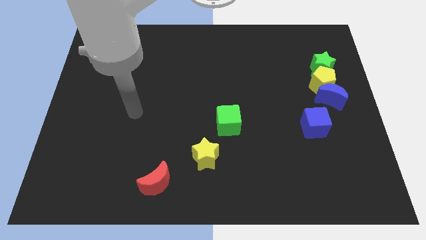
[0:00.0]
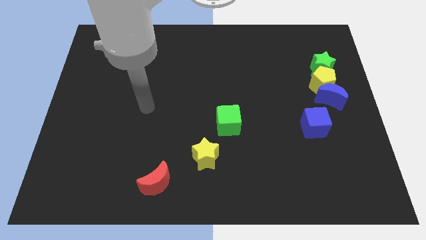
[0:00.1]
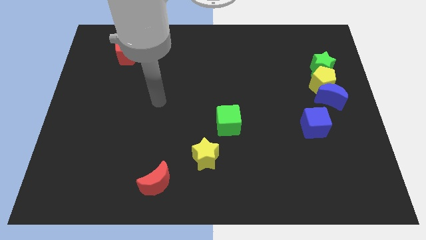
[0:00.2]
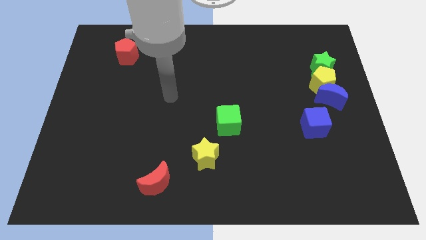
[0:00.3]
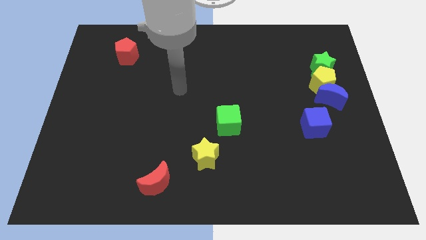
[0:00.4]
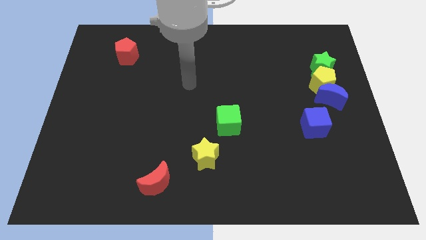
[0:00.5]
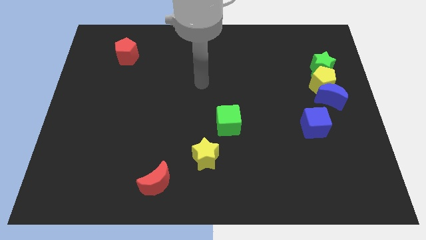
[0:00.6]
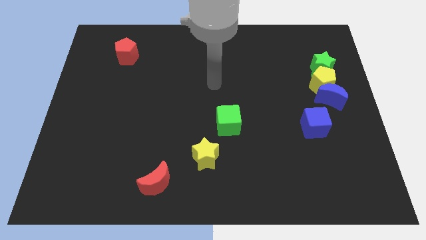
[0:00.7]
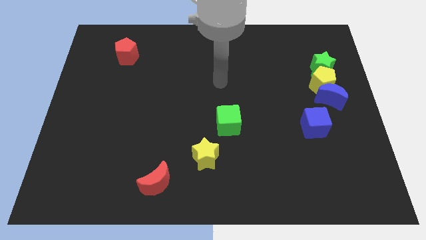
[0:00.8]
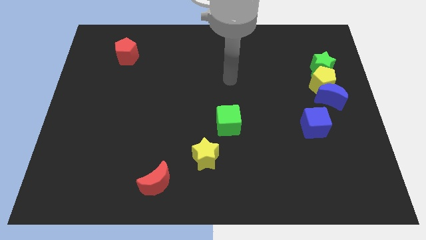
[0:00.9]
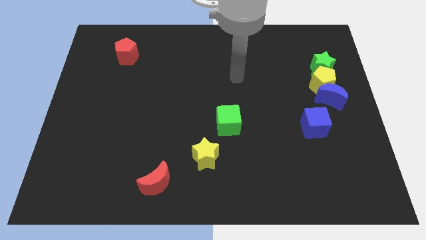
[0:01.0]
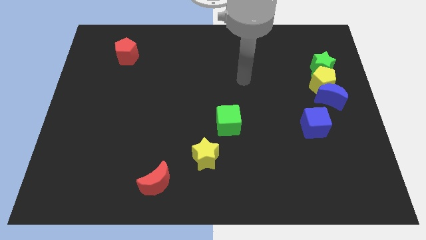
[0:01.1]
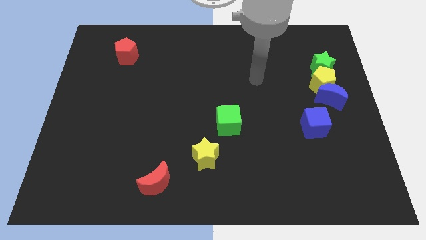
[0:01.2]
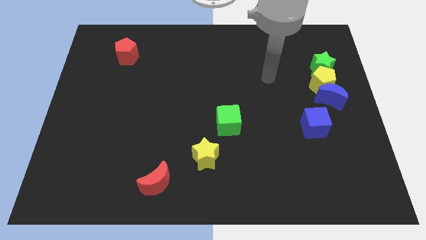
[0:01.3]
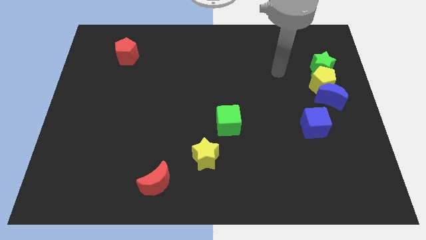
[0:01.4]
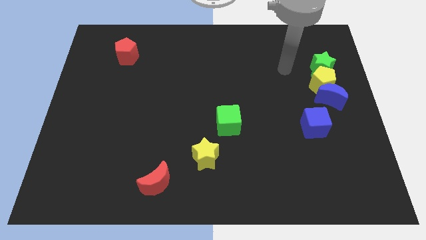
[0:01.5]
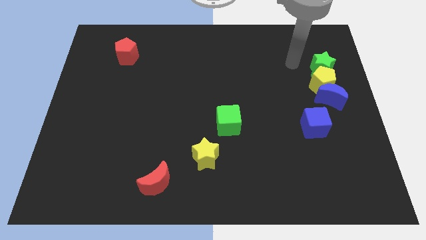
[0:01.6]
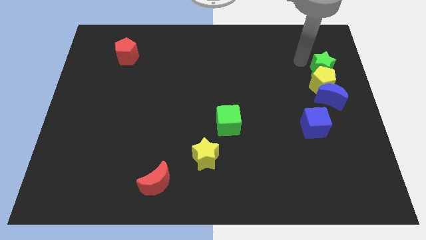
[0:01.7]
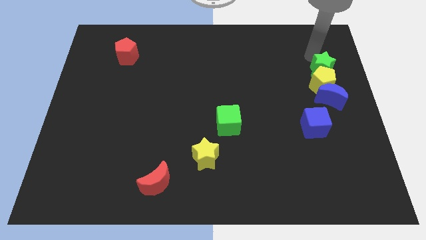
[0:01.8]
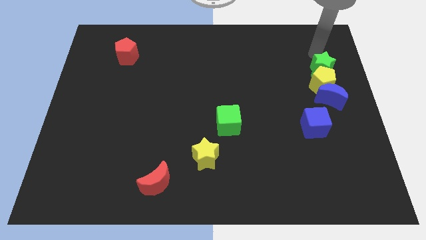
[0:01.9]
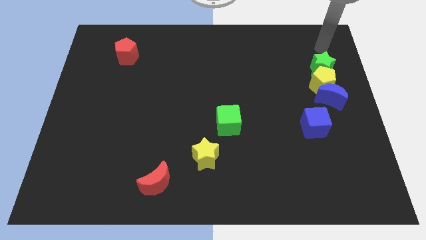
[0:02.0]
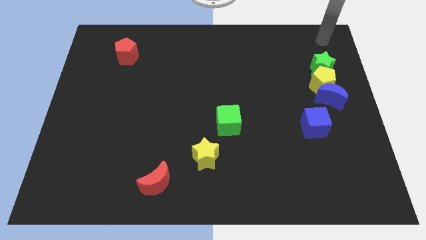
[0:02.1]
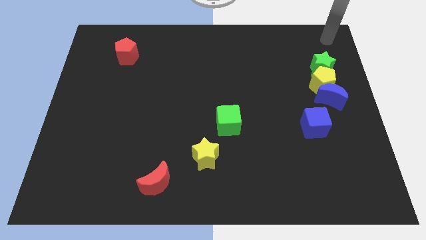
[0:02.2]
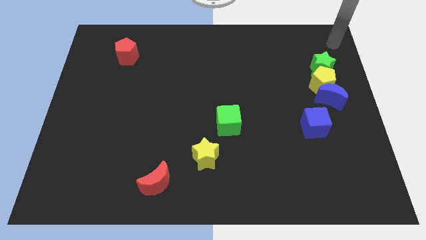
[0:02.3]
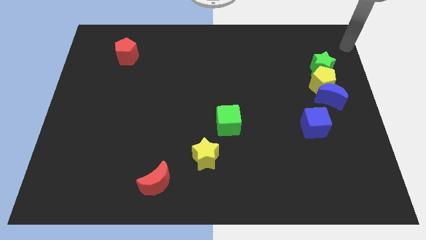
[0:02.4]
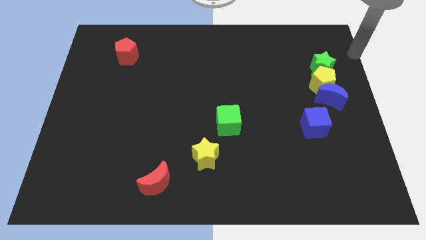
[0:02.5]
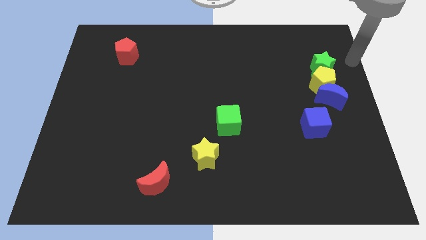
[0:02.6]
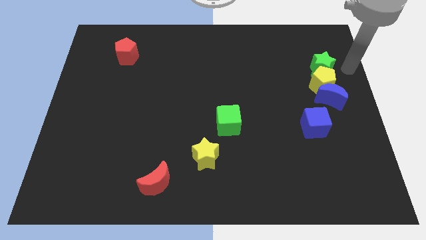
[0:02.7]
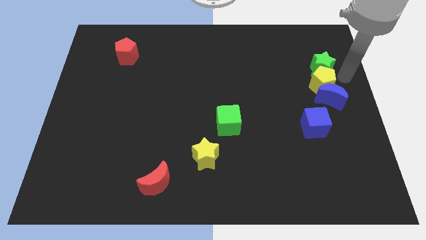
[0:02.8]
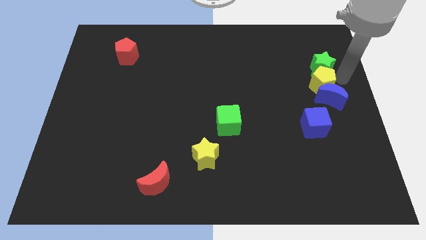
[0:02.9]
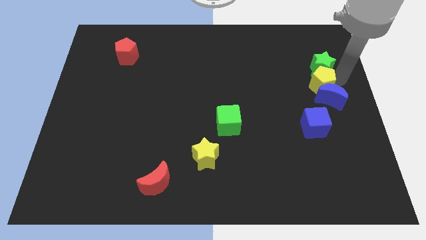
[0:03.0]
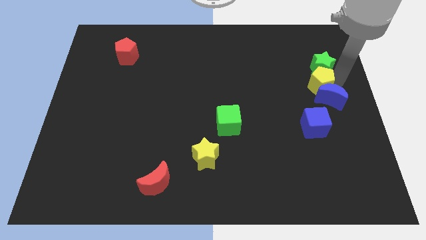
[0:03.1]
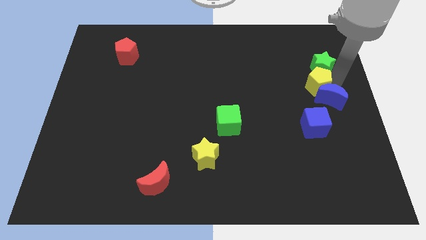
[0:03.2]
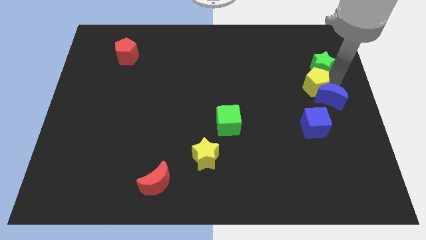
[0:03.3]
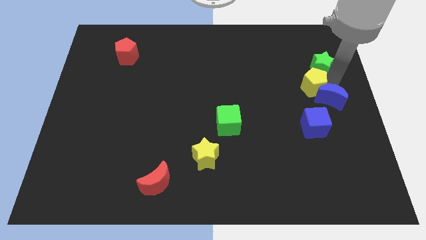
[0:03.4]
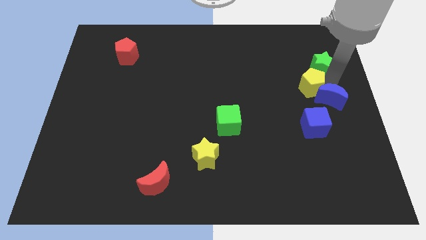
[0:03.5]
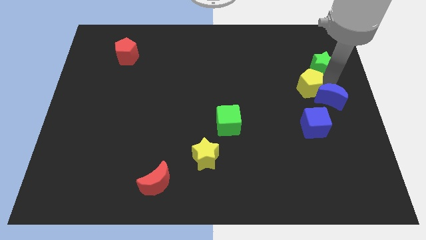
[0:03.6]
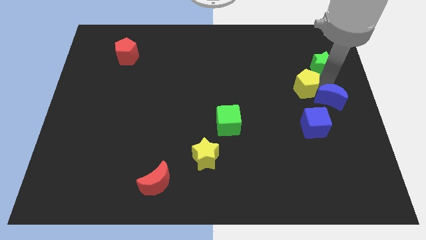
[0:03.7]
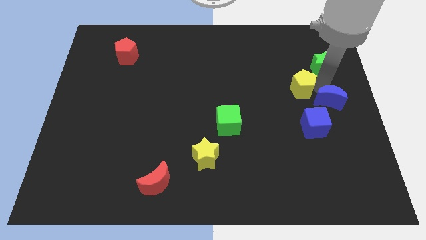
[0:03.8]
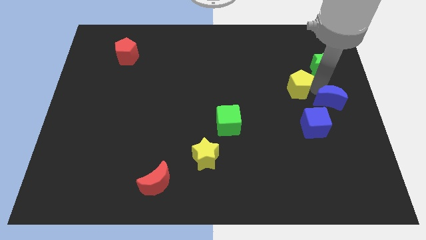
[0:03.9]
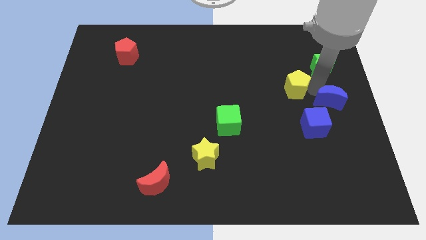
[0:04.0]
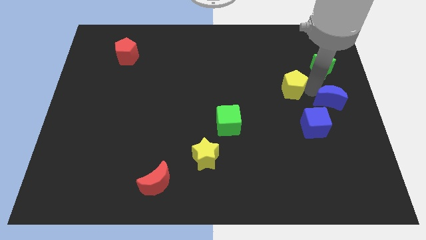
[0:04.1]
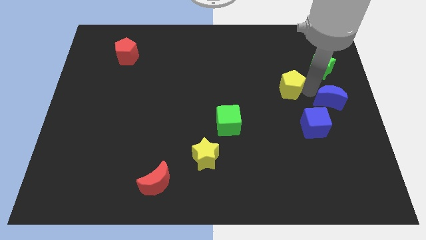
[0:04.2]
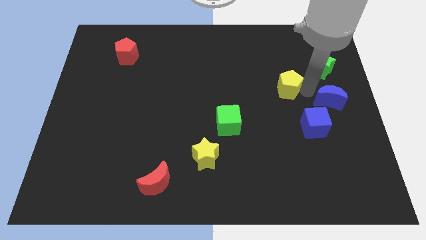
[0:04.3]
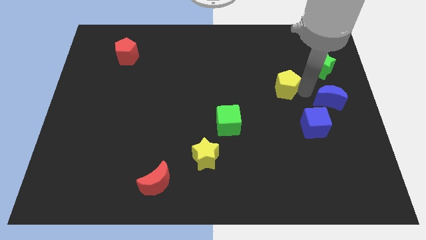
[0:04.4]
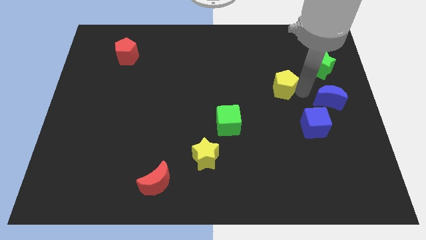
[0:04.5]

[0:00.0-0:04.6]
pull the yellow pentagon apart from the blue moon and green star

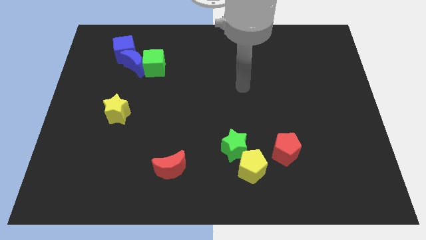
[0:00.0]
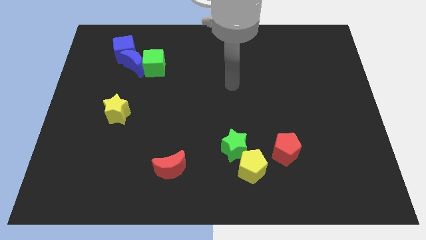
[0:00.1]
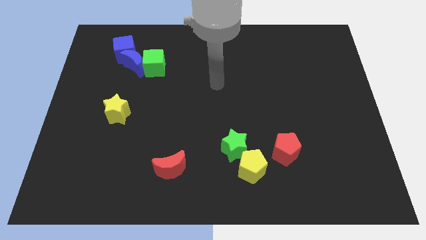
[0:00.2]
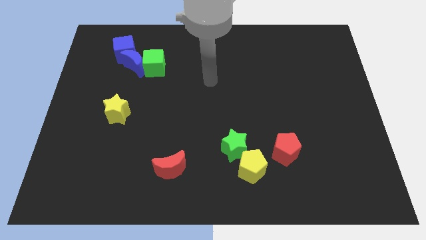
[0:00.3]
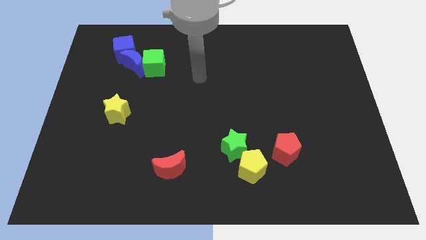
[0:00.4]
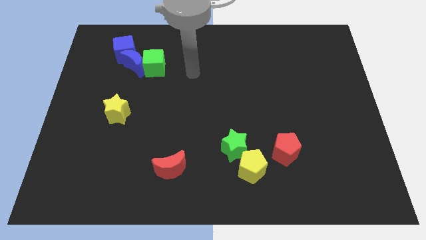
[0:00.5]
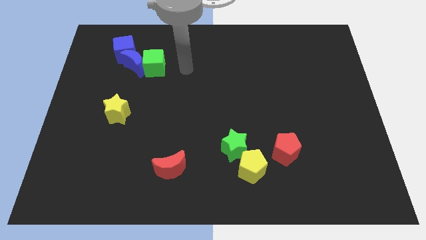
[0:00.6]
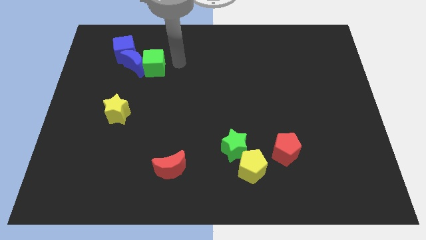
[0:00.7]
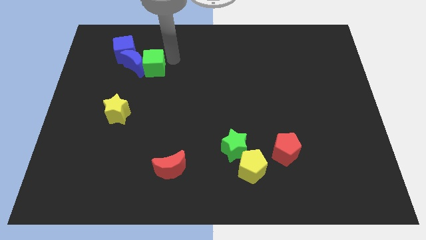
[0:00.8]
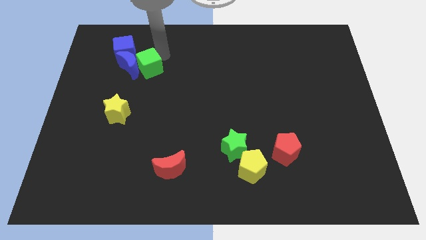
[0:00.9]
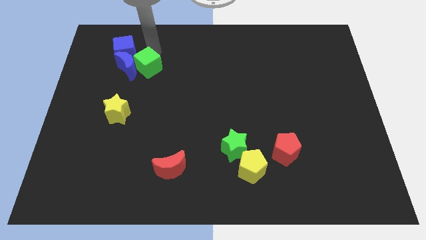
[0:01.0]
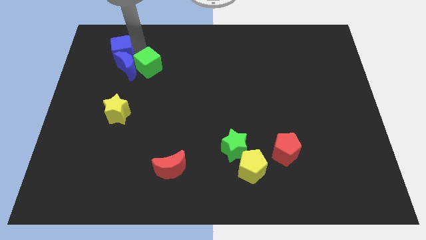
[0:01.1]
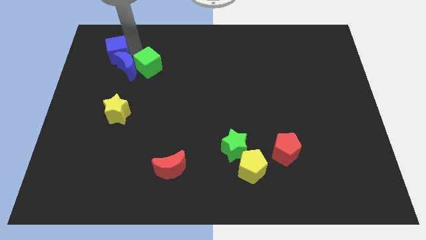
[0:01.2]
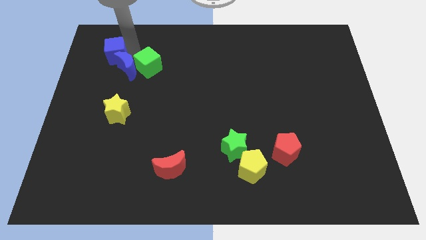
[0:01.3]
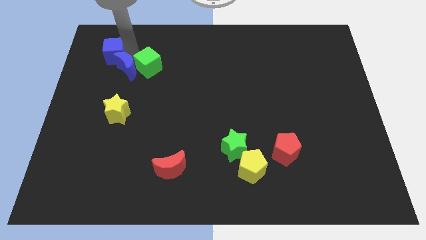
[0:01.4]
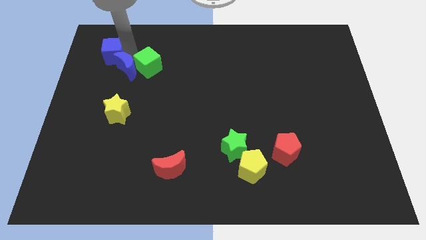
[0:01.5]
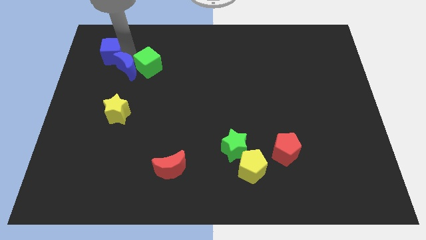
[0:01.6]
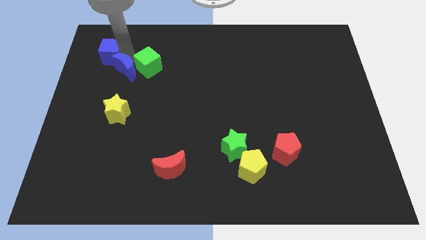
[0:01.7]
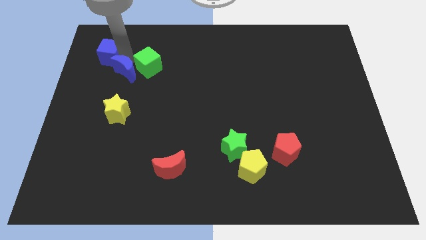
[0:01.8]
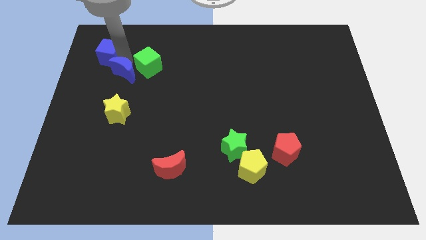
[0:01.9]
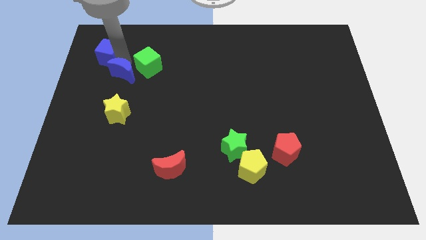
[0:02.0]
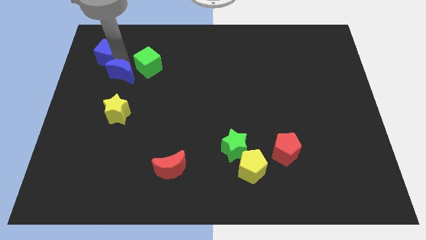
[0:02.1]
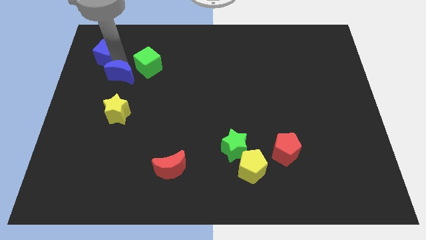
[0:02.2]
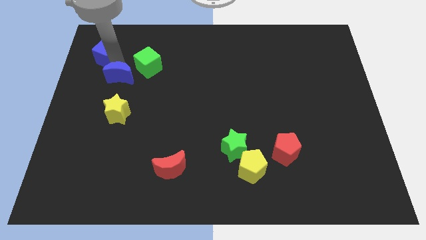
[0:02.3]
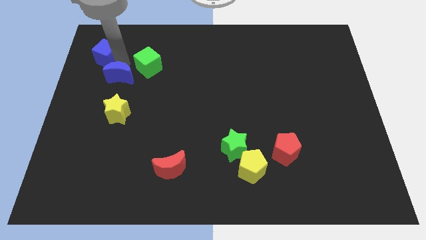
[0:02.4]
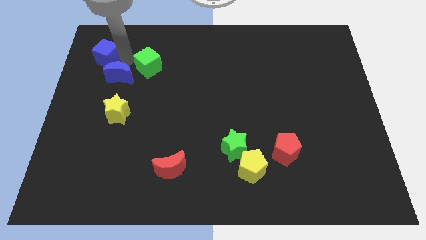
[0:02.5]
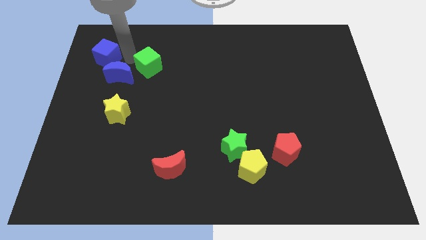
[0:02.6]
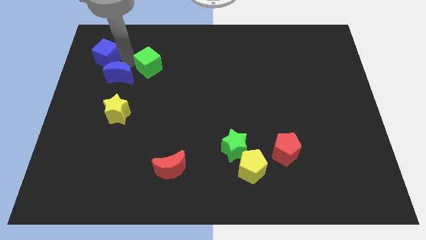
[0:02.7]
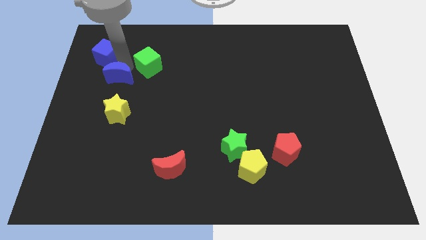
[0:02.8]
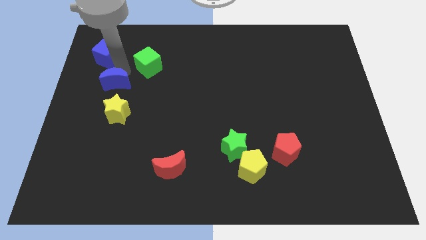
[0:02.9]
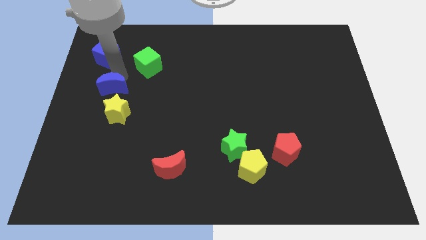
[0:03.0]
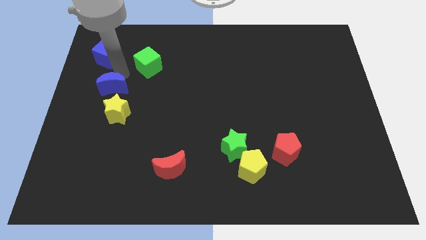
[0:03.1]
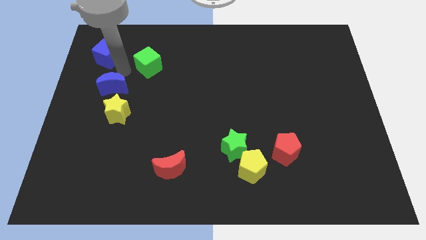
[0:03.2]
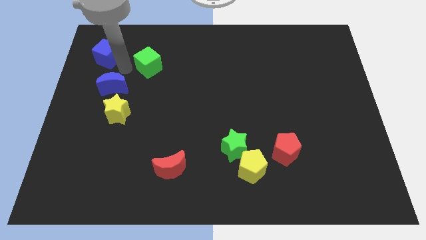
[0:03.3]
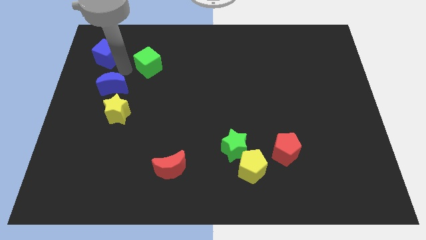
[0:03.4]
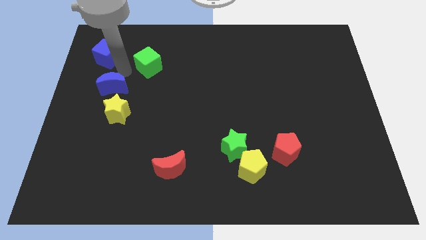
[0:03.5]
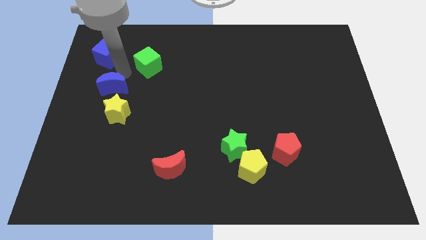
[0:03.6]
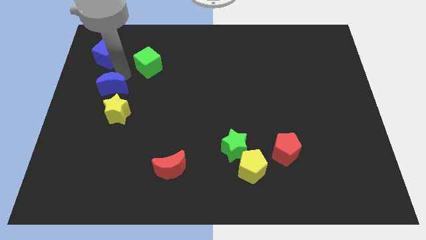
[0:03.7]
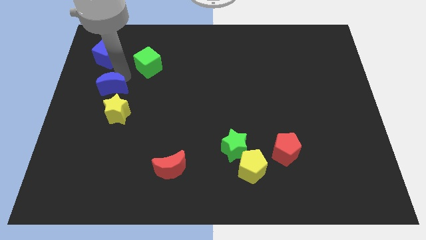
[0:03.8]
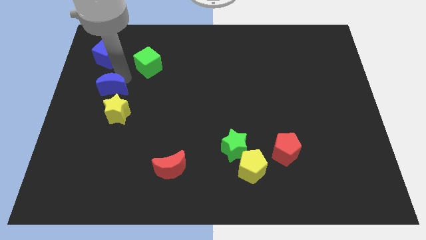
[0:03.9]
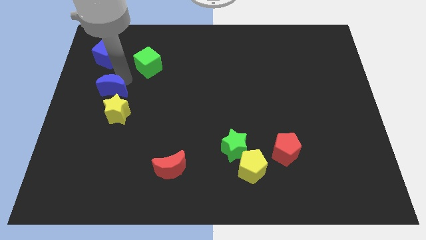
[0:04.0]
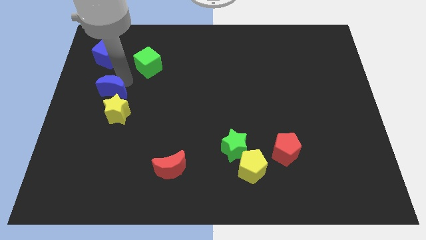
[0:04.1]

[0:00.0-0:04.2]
pull the blue moon apart from the green cube and blue cube

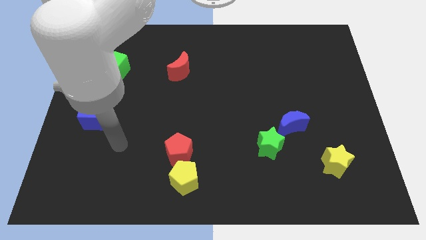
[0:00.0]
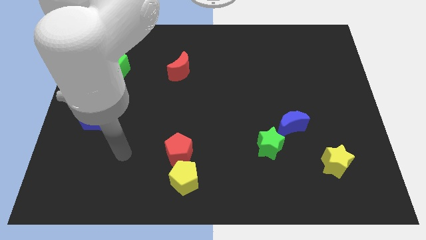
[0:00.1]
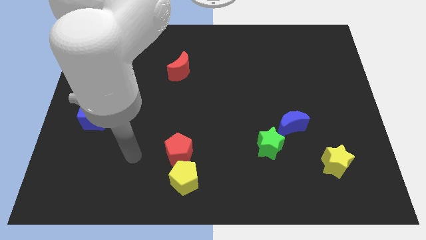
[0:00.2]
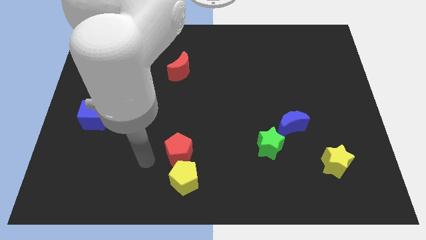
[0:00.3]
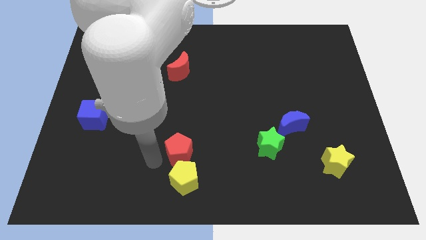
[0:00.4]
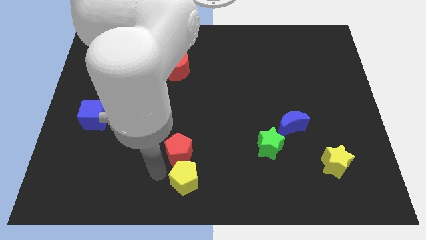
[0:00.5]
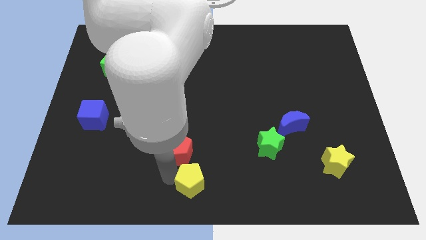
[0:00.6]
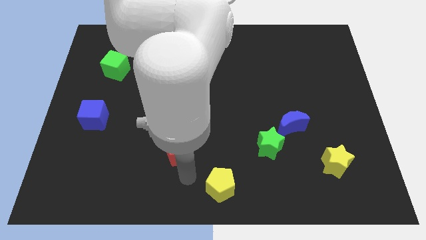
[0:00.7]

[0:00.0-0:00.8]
move the red pentagon away from the yellow pentagon
